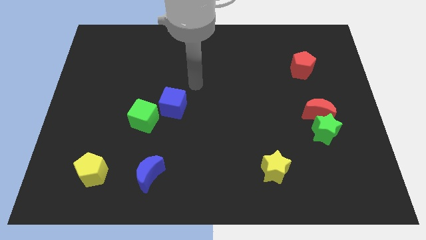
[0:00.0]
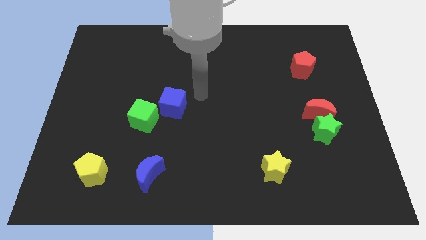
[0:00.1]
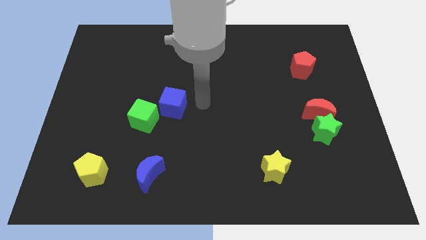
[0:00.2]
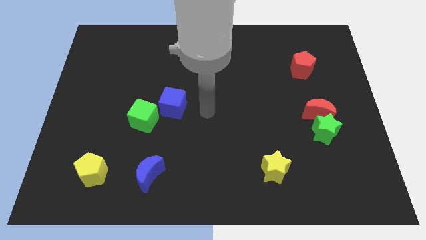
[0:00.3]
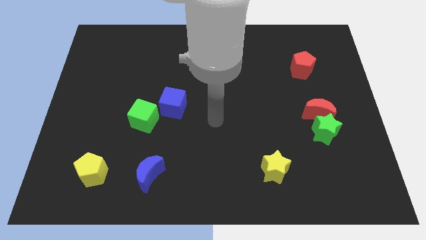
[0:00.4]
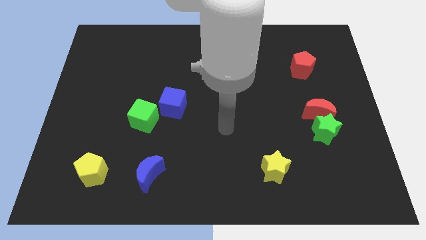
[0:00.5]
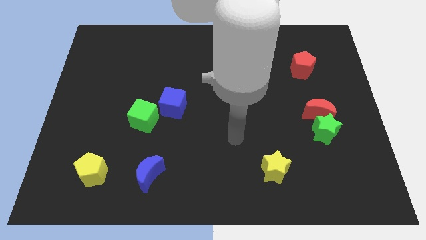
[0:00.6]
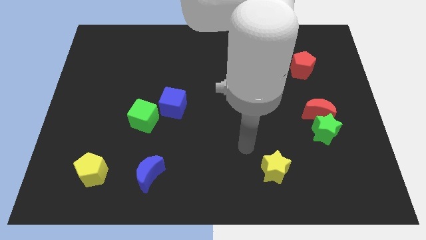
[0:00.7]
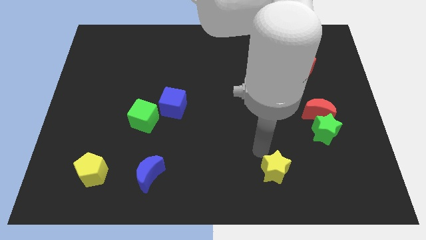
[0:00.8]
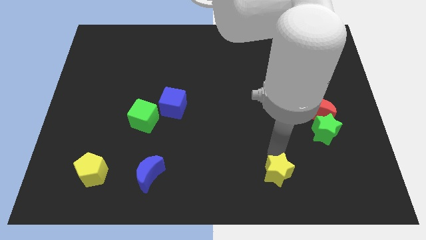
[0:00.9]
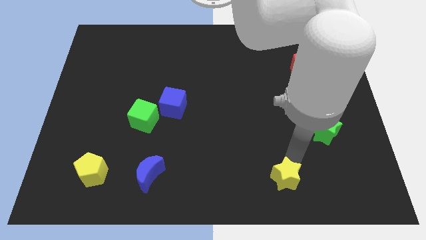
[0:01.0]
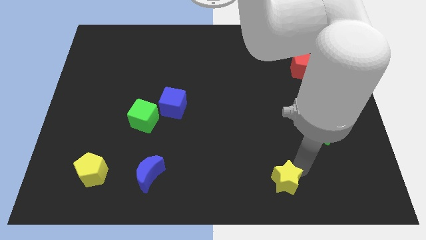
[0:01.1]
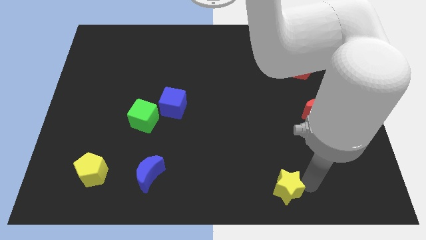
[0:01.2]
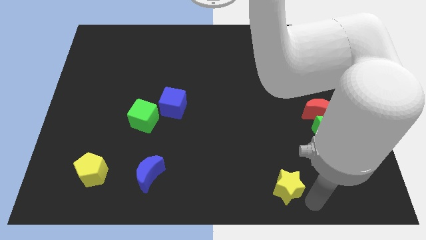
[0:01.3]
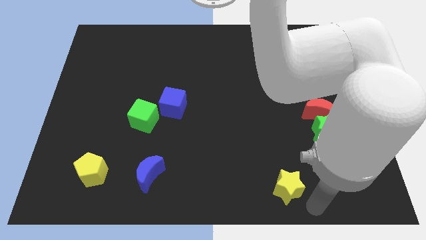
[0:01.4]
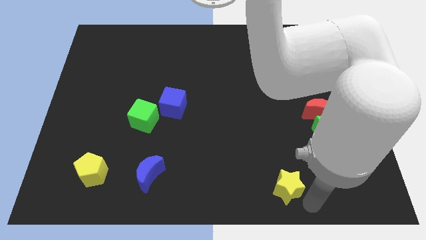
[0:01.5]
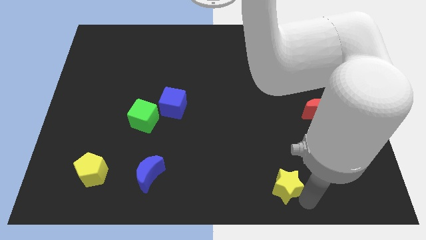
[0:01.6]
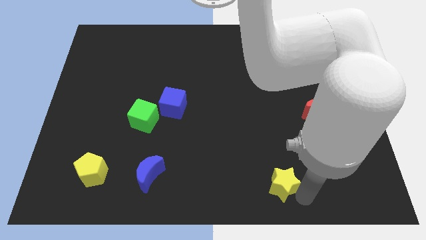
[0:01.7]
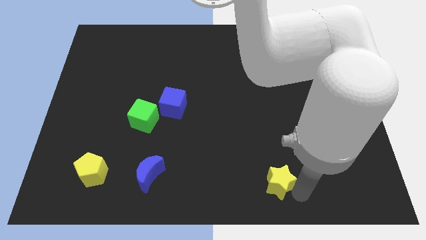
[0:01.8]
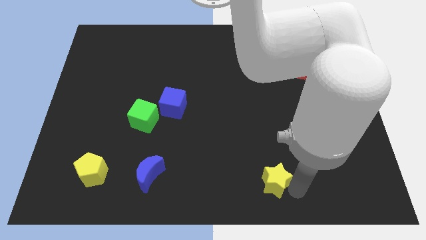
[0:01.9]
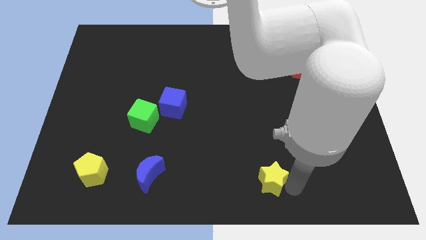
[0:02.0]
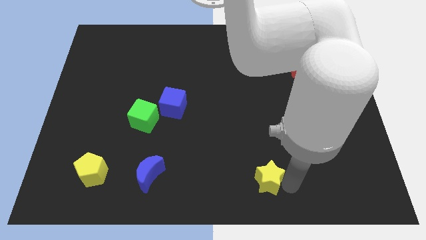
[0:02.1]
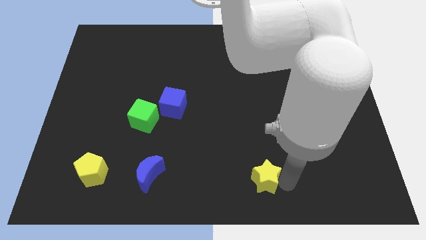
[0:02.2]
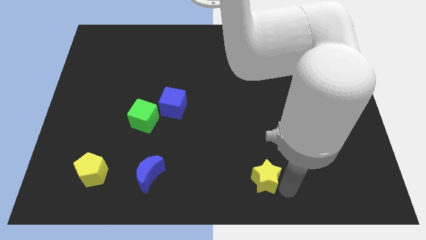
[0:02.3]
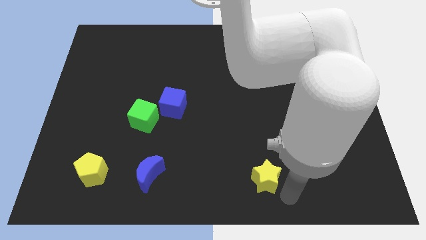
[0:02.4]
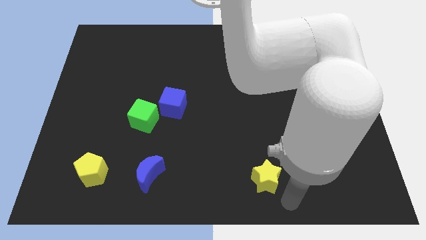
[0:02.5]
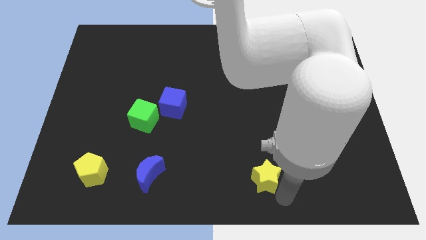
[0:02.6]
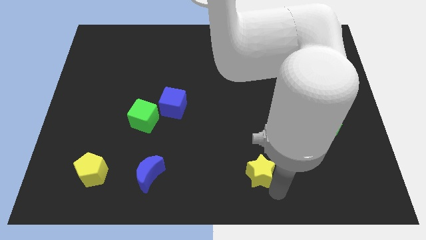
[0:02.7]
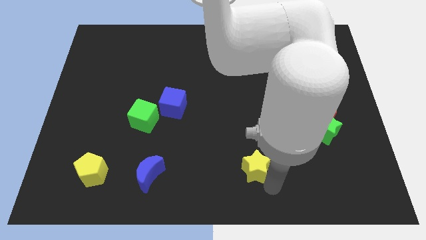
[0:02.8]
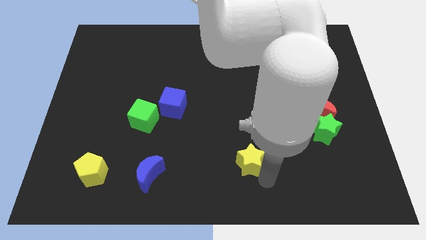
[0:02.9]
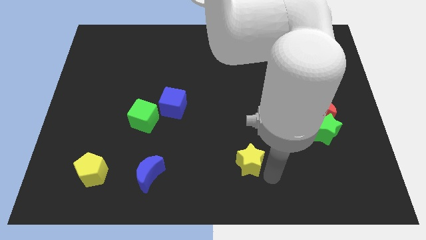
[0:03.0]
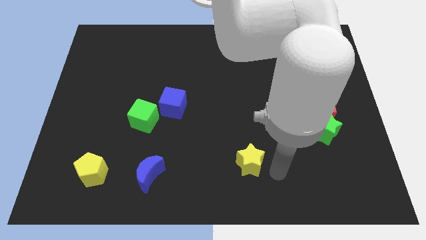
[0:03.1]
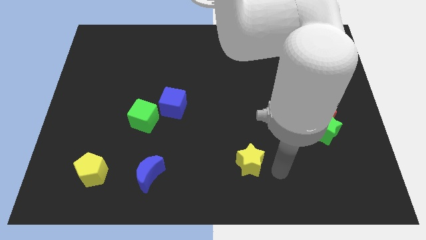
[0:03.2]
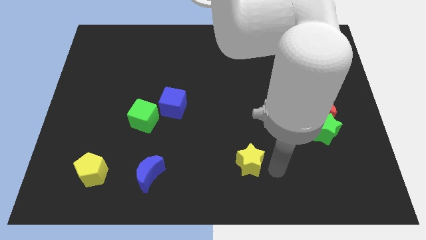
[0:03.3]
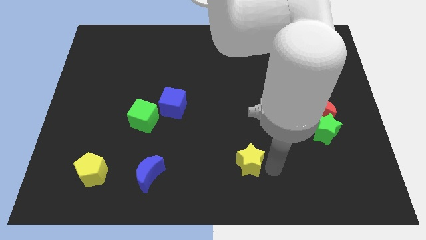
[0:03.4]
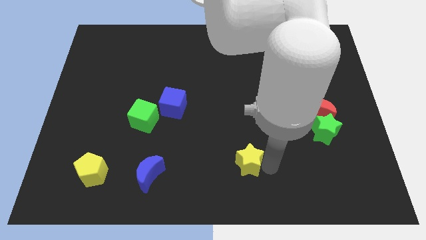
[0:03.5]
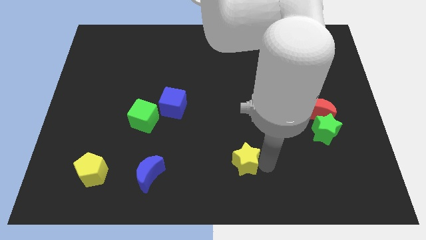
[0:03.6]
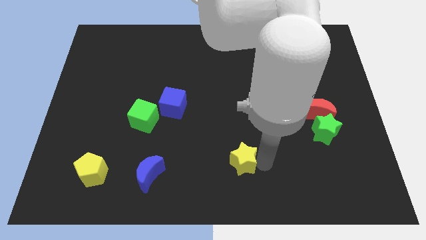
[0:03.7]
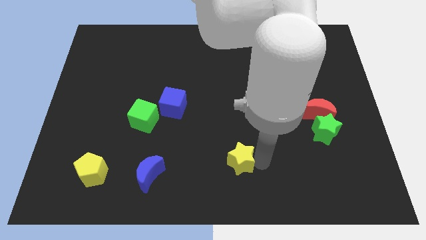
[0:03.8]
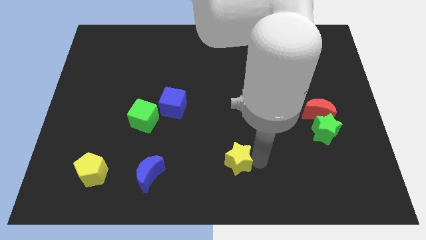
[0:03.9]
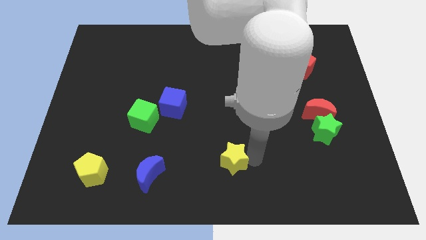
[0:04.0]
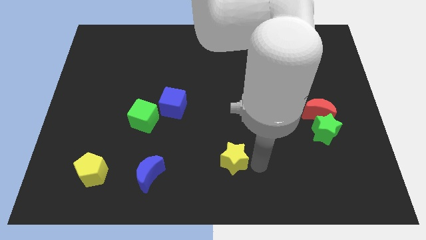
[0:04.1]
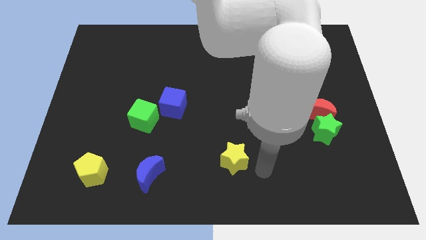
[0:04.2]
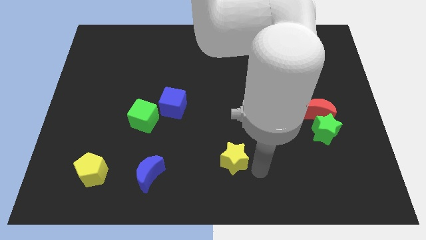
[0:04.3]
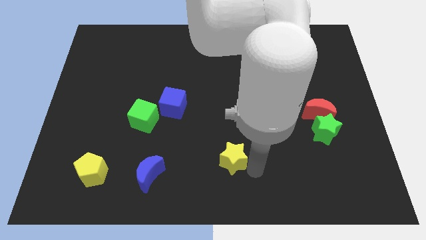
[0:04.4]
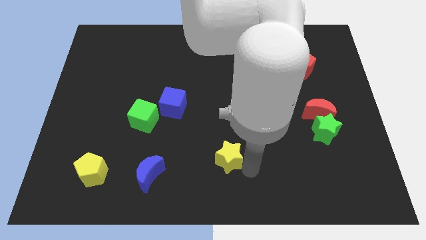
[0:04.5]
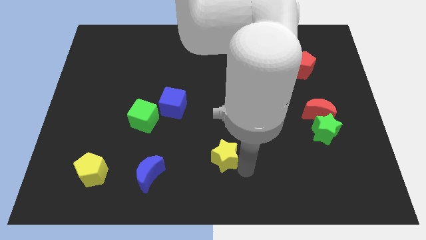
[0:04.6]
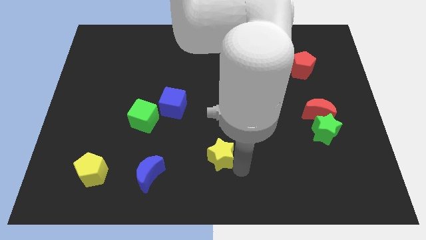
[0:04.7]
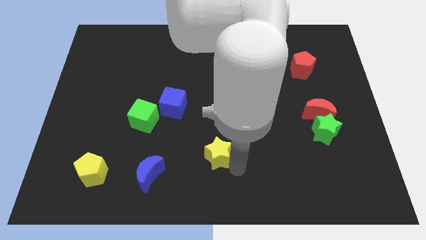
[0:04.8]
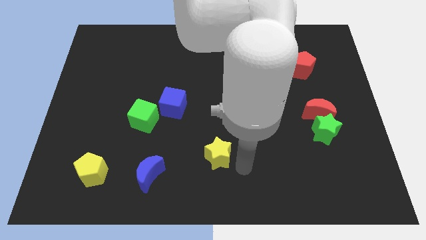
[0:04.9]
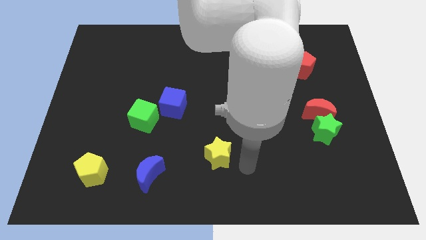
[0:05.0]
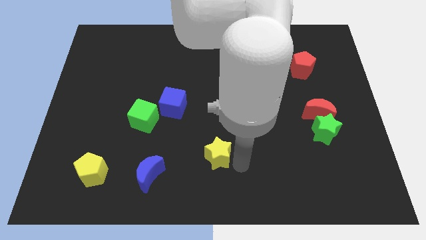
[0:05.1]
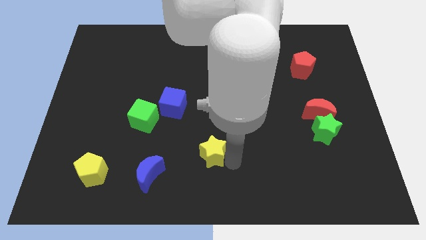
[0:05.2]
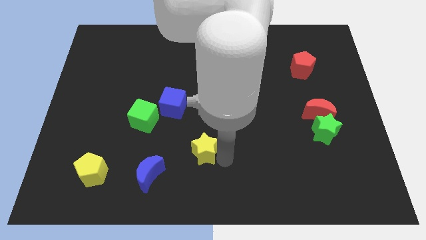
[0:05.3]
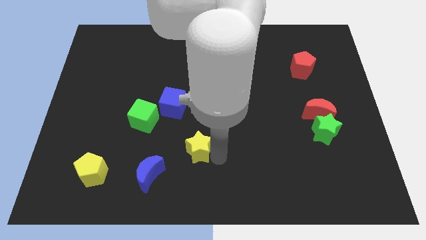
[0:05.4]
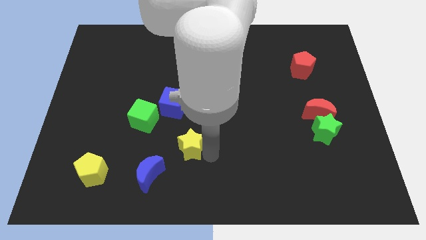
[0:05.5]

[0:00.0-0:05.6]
push the yellow star to the bottom of the blue cube

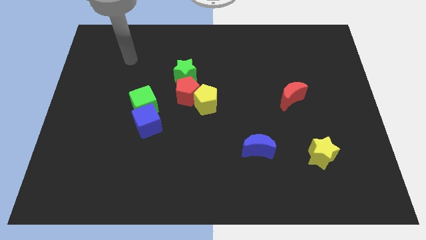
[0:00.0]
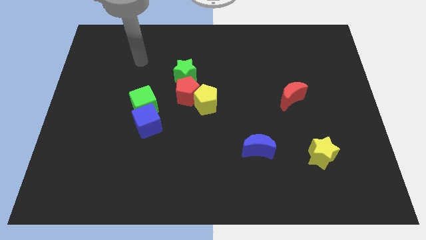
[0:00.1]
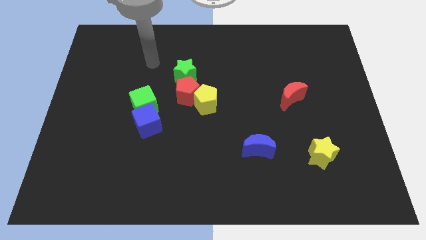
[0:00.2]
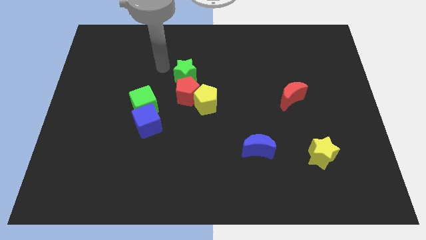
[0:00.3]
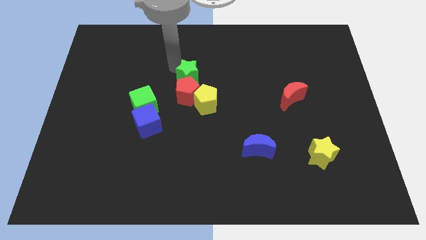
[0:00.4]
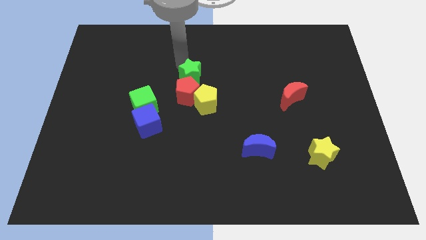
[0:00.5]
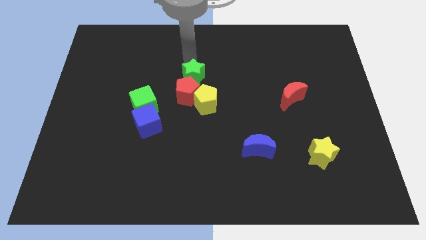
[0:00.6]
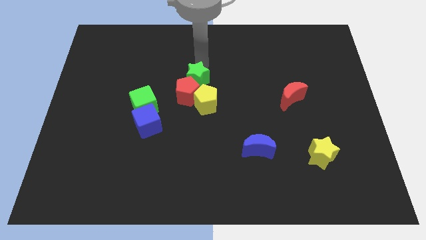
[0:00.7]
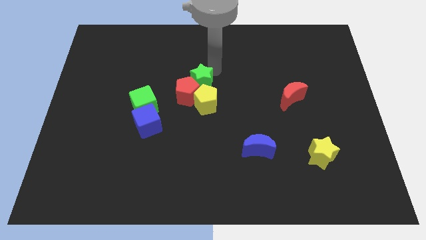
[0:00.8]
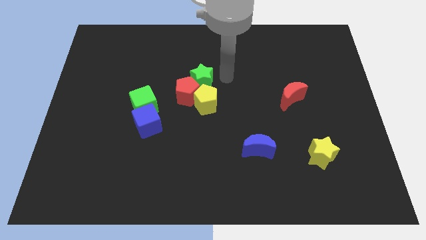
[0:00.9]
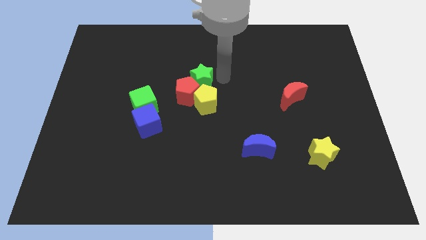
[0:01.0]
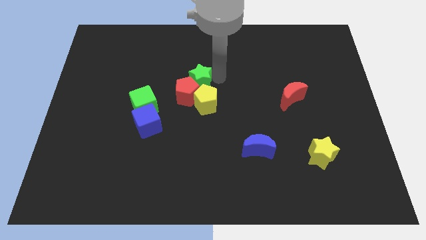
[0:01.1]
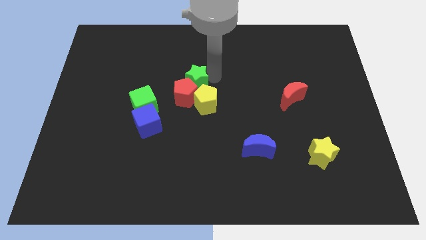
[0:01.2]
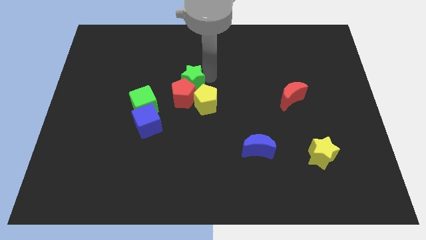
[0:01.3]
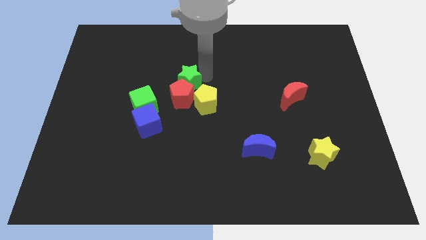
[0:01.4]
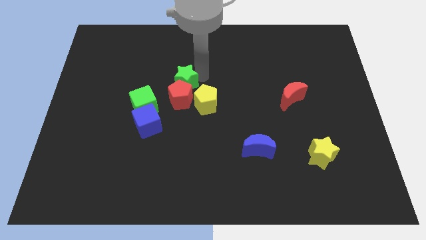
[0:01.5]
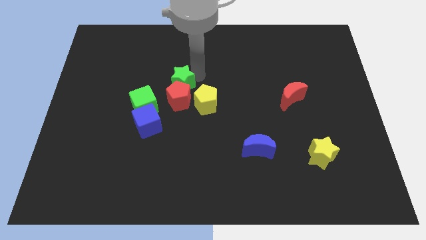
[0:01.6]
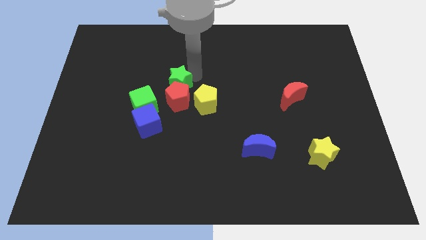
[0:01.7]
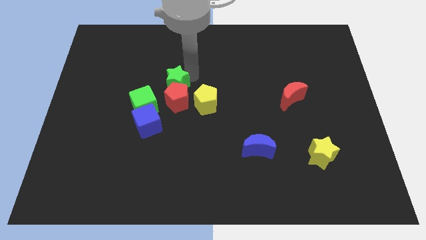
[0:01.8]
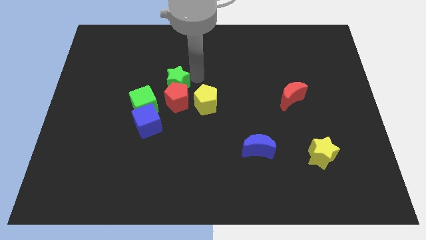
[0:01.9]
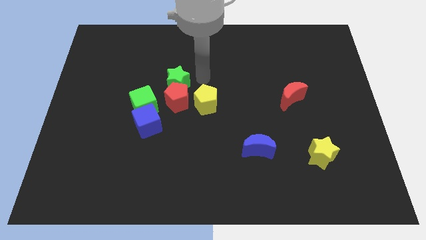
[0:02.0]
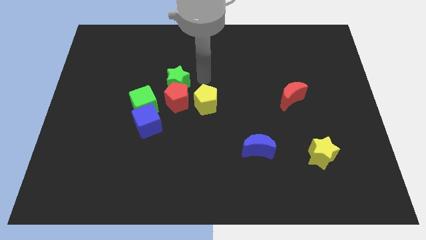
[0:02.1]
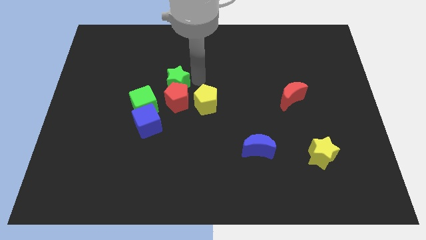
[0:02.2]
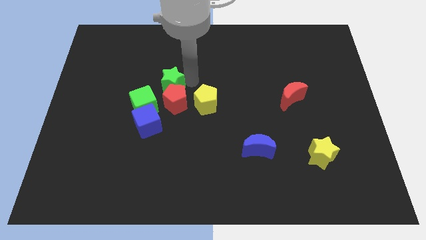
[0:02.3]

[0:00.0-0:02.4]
put the green star above the blue cube

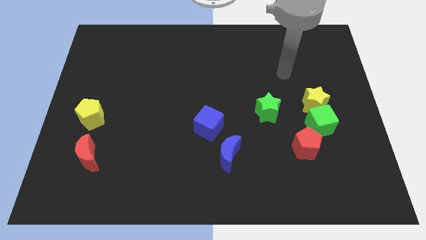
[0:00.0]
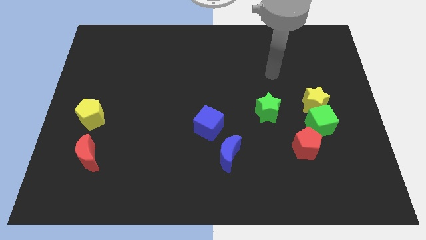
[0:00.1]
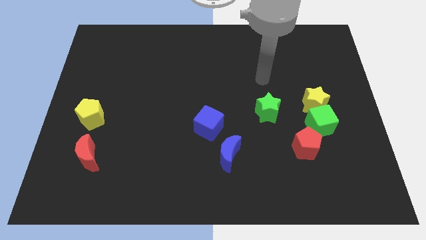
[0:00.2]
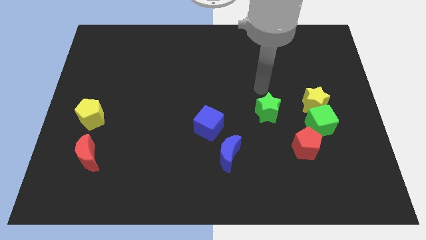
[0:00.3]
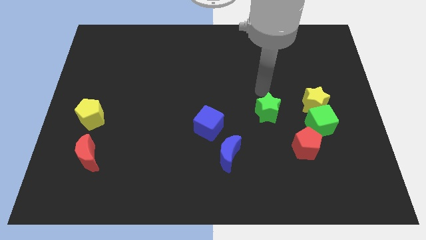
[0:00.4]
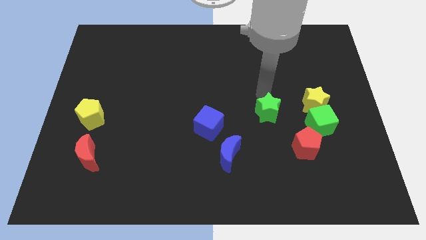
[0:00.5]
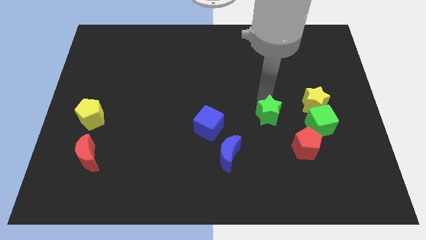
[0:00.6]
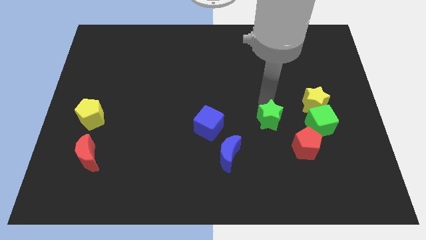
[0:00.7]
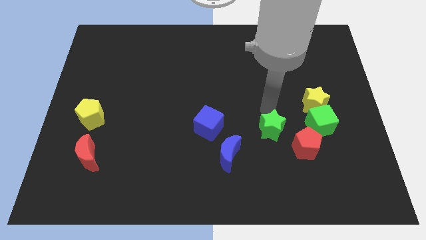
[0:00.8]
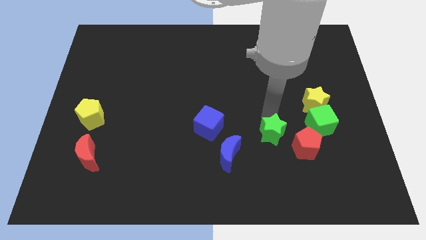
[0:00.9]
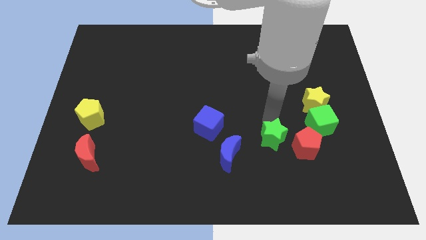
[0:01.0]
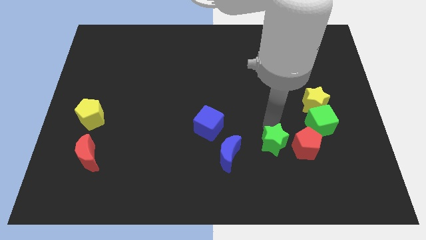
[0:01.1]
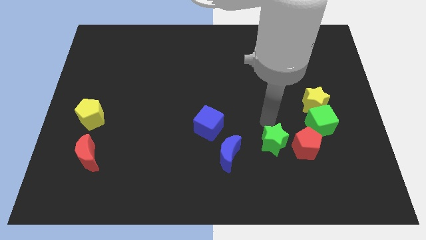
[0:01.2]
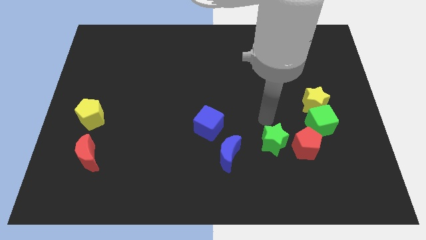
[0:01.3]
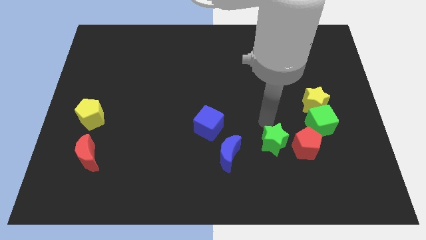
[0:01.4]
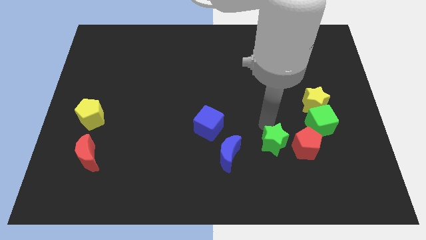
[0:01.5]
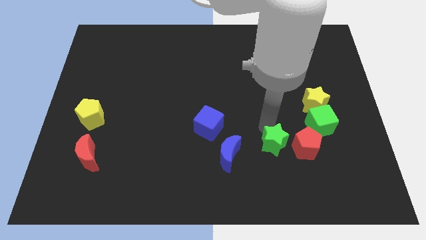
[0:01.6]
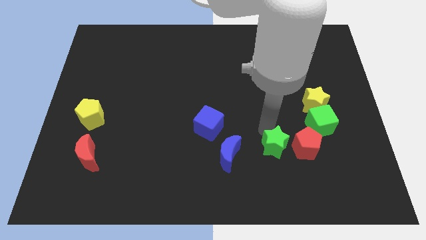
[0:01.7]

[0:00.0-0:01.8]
slide the green star diagonally down and to the left of the red pentagon
